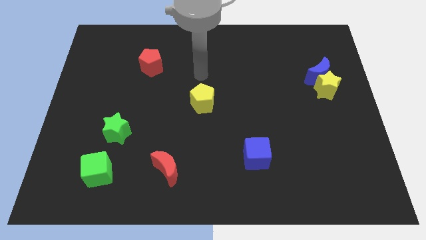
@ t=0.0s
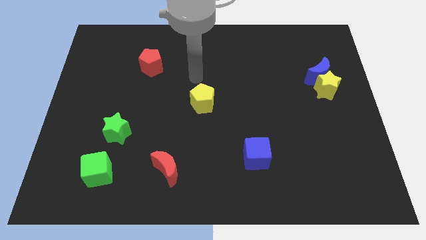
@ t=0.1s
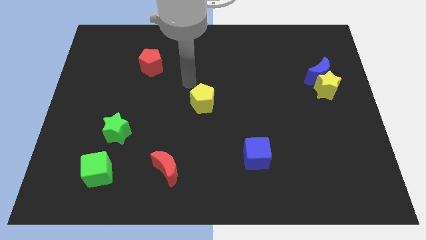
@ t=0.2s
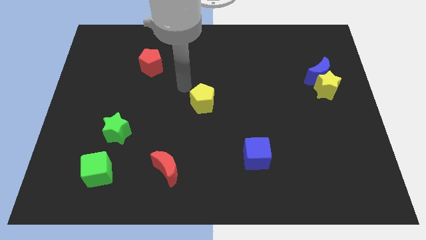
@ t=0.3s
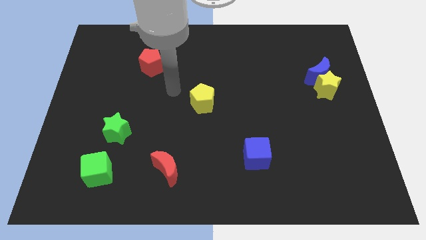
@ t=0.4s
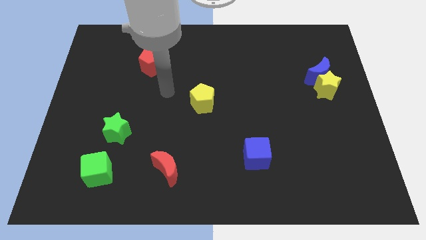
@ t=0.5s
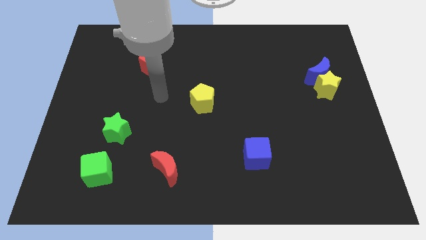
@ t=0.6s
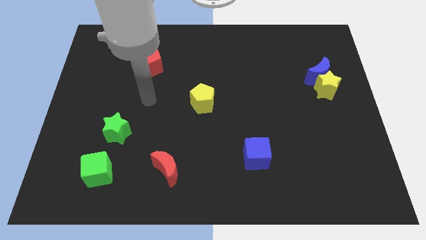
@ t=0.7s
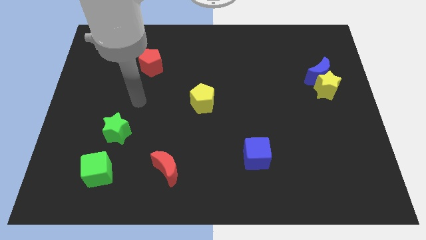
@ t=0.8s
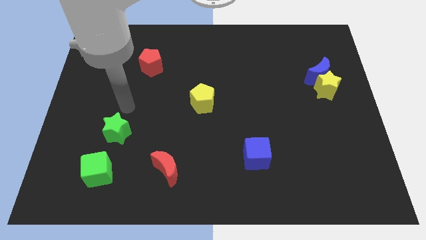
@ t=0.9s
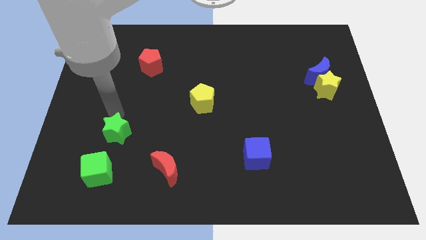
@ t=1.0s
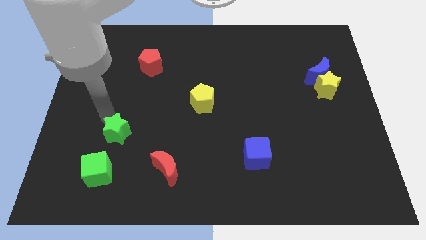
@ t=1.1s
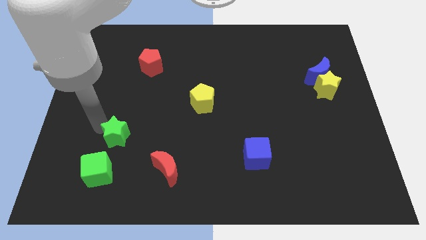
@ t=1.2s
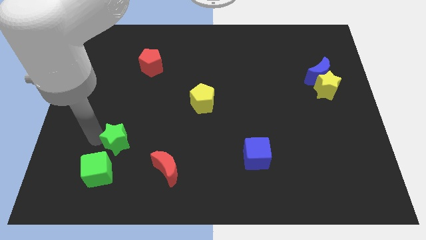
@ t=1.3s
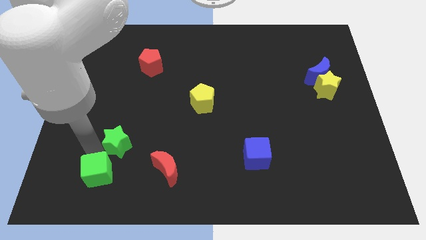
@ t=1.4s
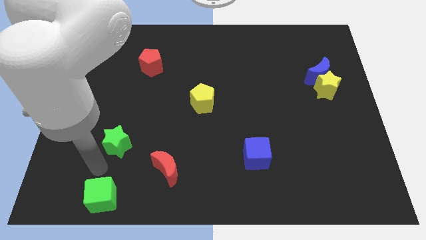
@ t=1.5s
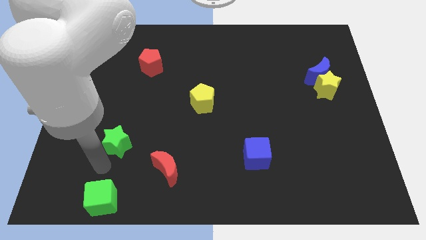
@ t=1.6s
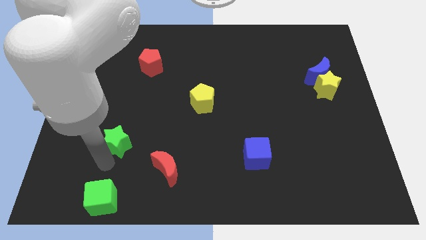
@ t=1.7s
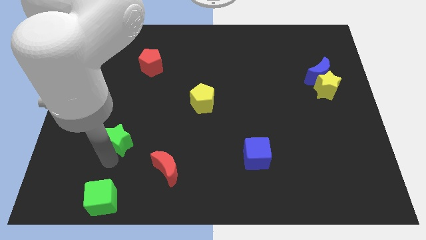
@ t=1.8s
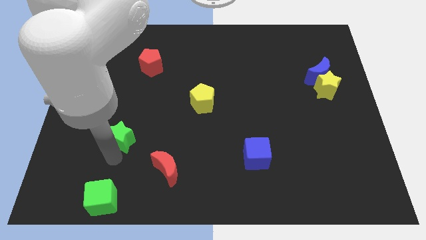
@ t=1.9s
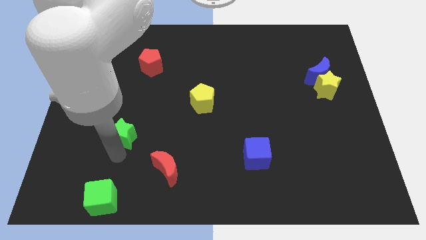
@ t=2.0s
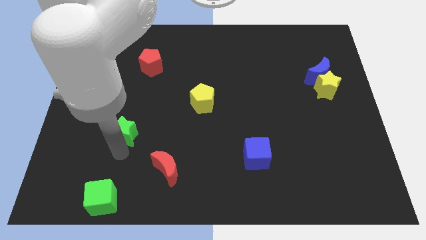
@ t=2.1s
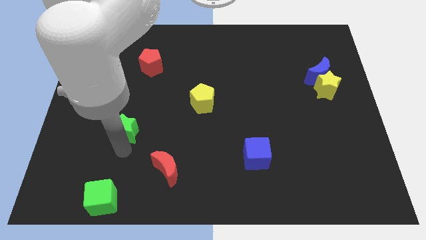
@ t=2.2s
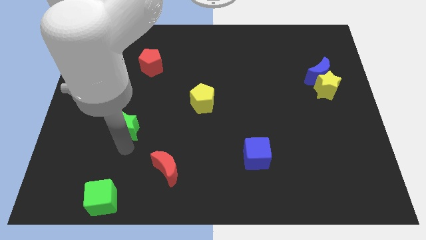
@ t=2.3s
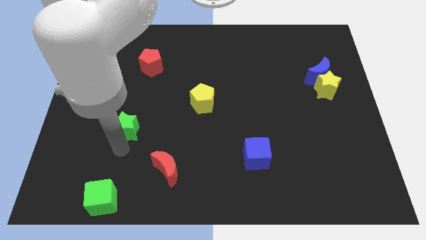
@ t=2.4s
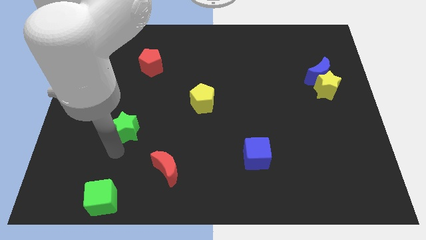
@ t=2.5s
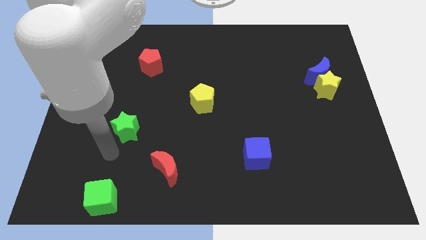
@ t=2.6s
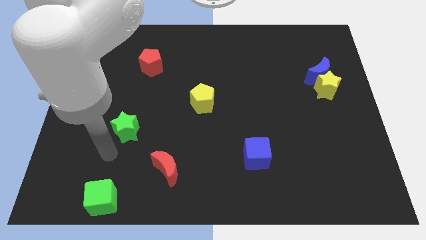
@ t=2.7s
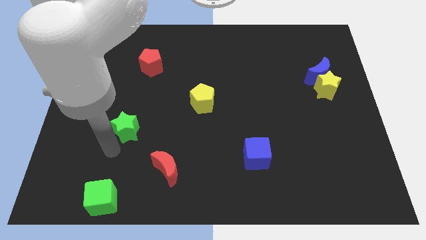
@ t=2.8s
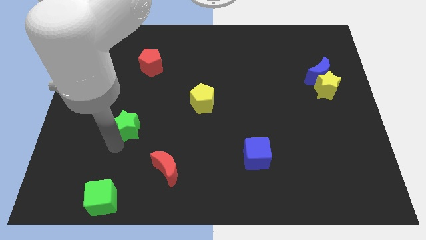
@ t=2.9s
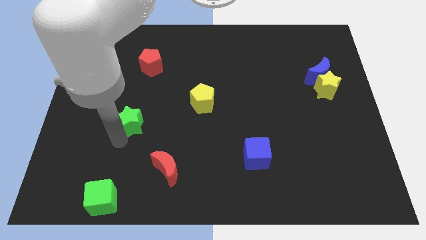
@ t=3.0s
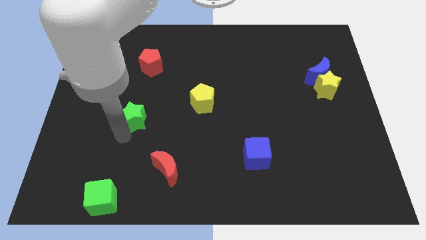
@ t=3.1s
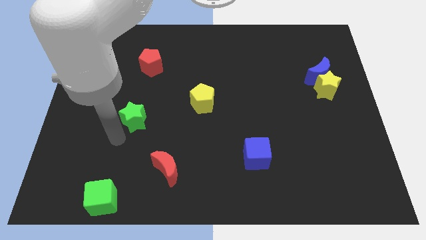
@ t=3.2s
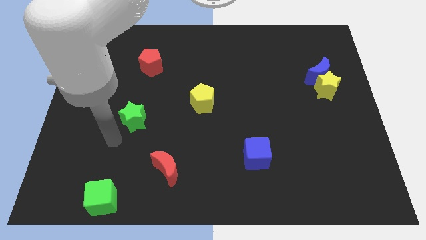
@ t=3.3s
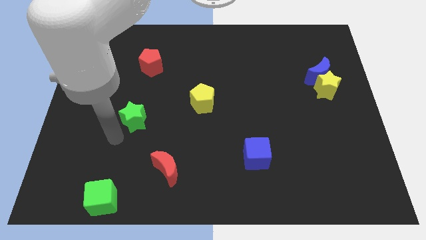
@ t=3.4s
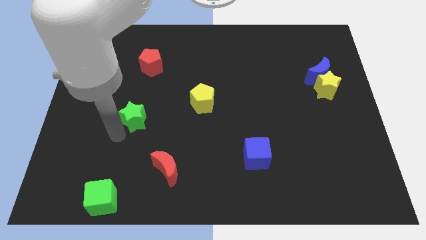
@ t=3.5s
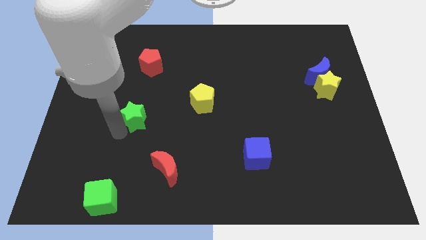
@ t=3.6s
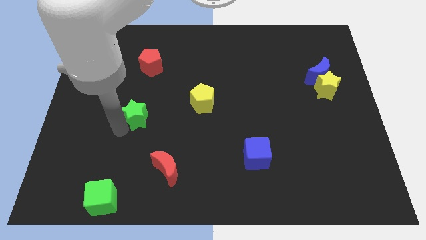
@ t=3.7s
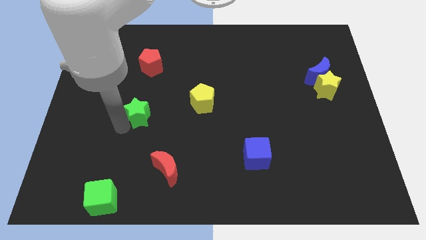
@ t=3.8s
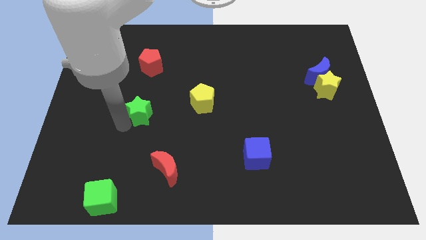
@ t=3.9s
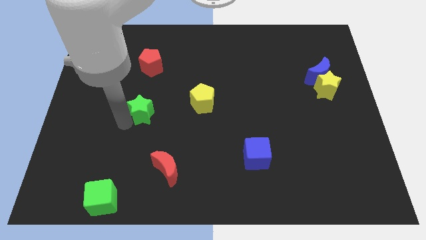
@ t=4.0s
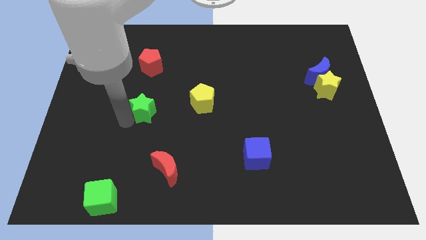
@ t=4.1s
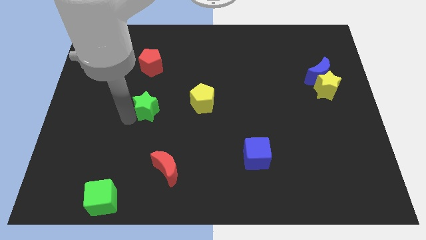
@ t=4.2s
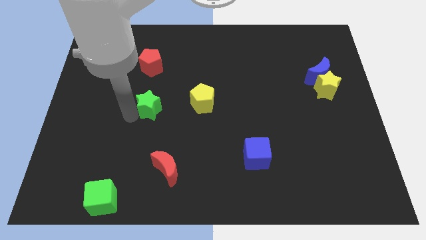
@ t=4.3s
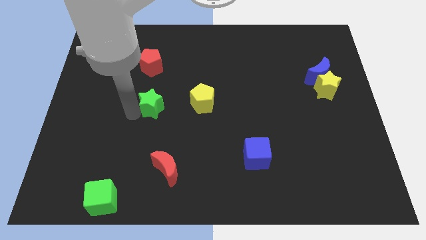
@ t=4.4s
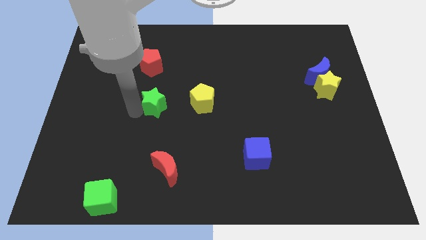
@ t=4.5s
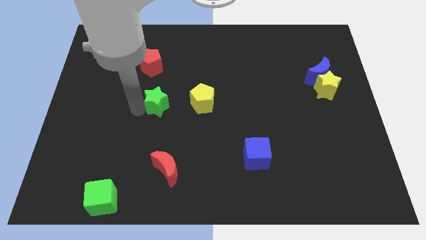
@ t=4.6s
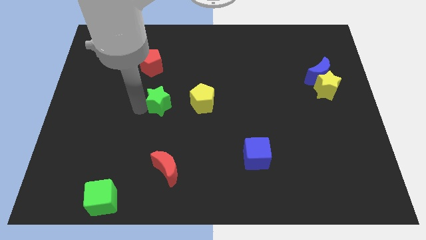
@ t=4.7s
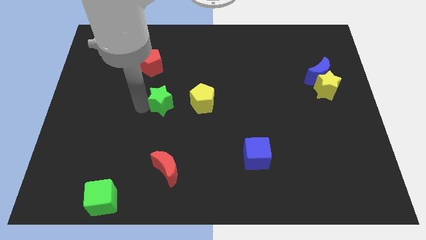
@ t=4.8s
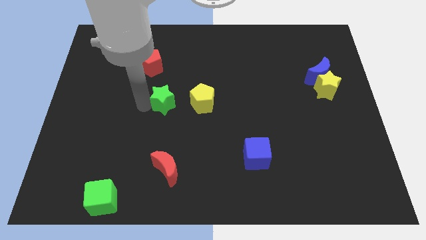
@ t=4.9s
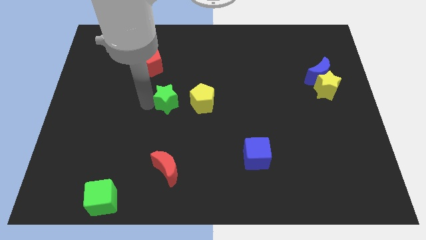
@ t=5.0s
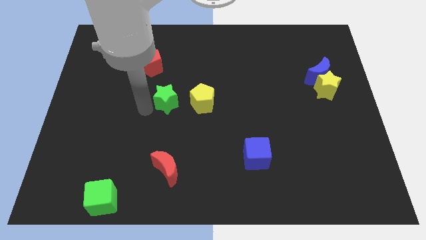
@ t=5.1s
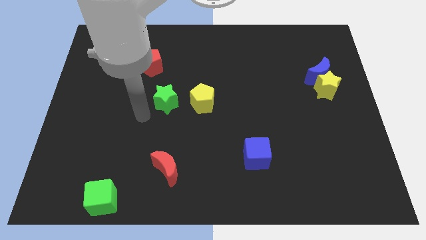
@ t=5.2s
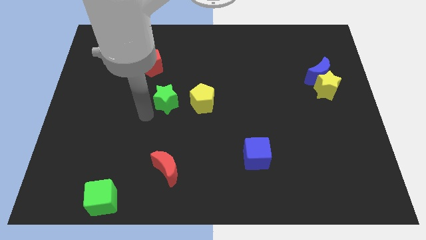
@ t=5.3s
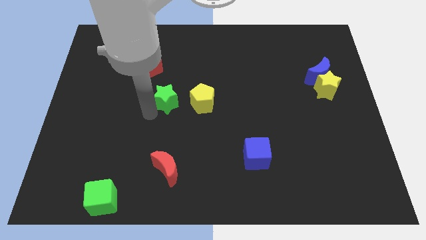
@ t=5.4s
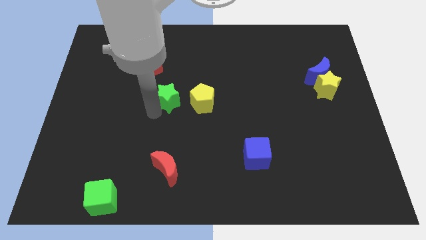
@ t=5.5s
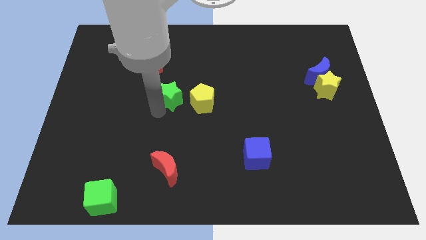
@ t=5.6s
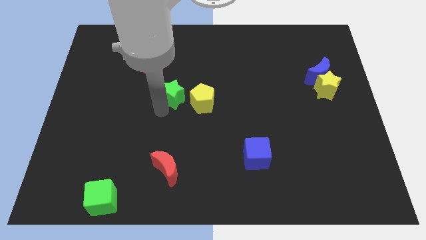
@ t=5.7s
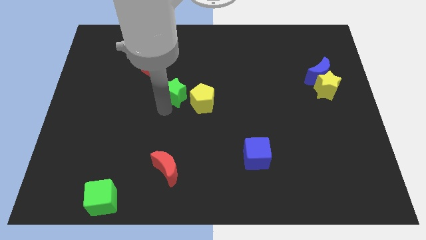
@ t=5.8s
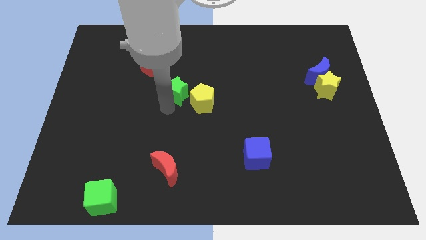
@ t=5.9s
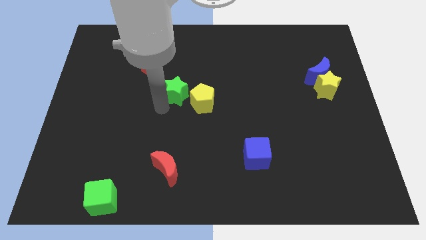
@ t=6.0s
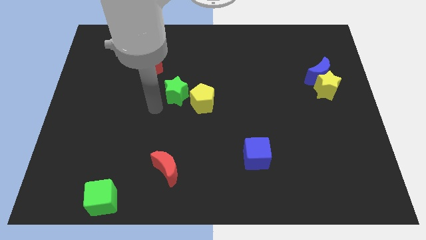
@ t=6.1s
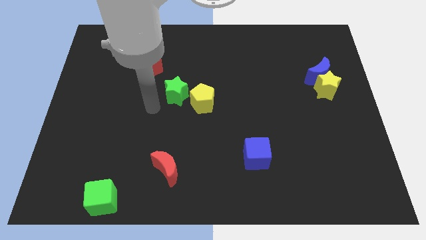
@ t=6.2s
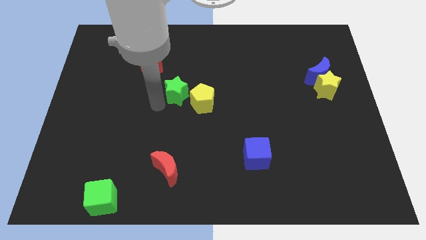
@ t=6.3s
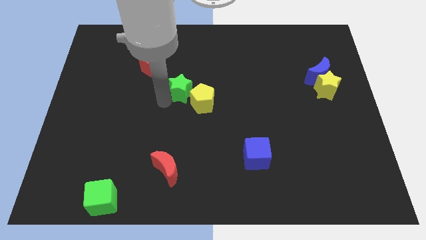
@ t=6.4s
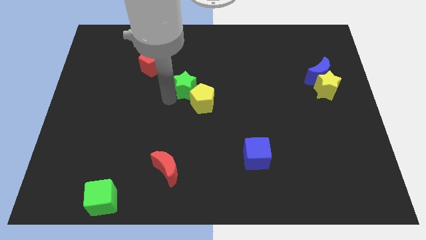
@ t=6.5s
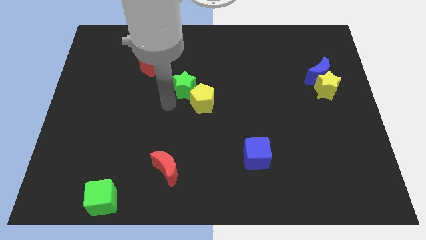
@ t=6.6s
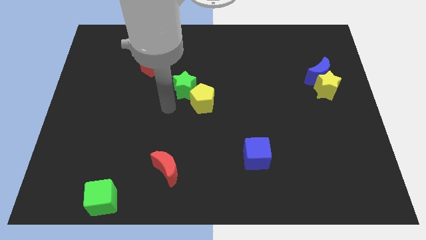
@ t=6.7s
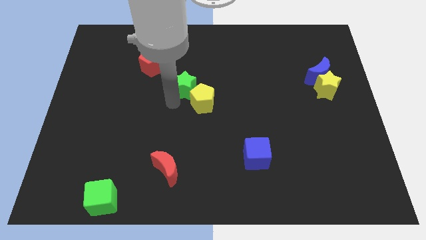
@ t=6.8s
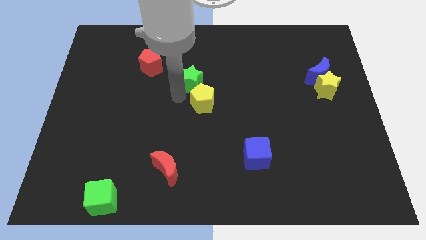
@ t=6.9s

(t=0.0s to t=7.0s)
move the green star upwards and right

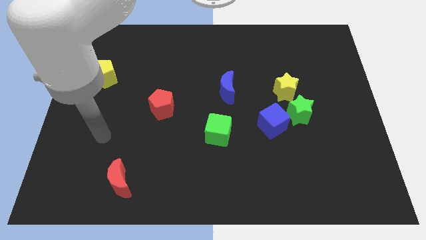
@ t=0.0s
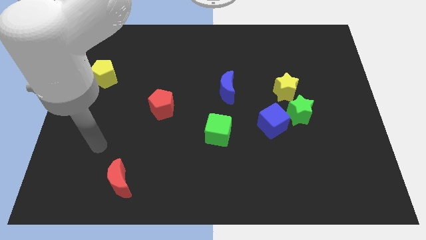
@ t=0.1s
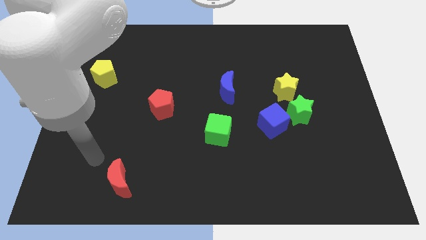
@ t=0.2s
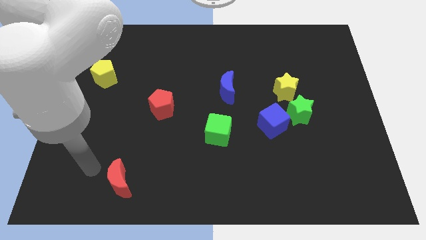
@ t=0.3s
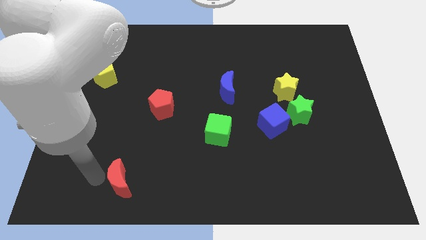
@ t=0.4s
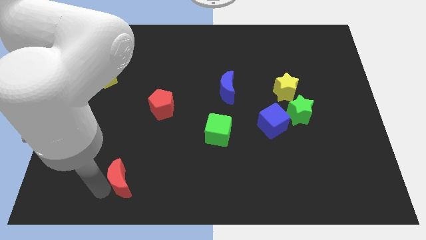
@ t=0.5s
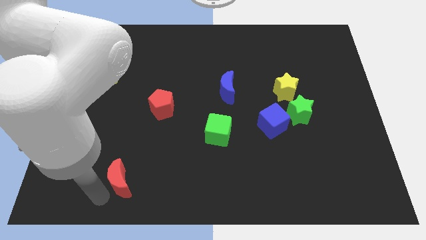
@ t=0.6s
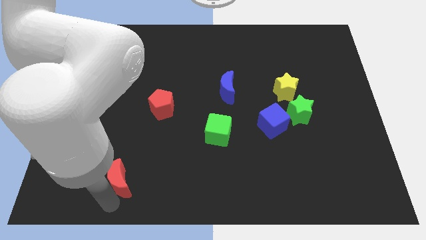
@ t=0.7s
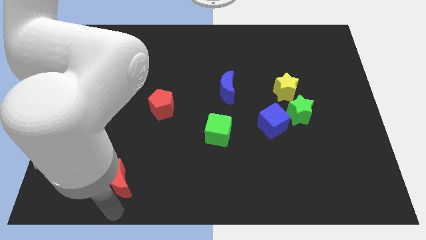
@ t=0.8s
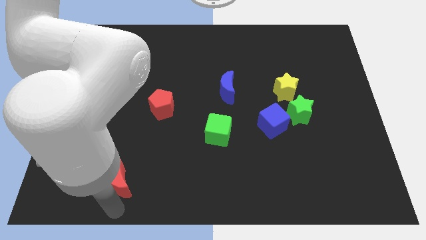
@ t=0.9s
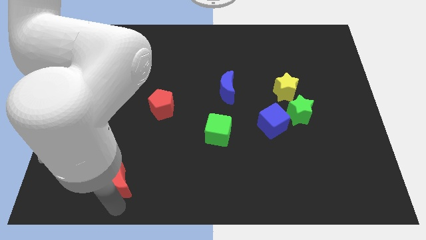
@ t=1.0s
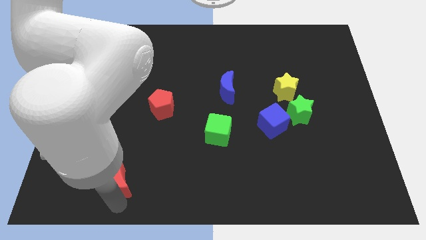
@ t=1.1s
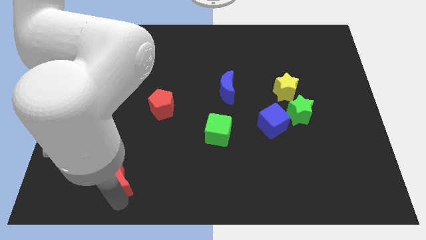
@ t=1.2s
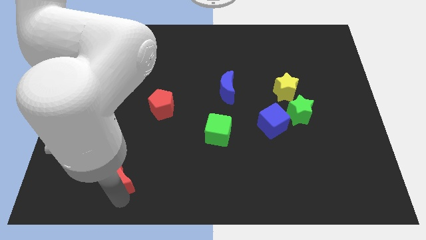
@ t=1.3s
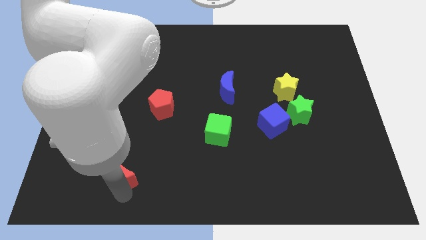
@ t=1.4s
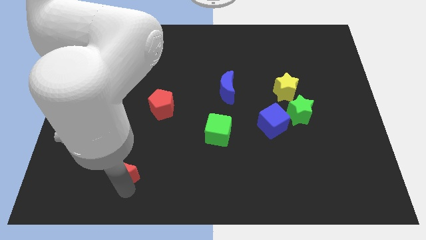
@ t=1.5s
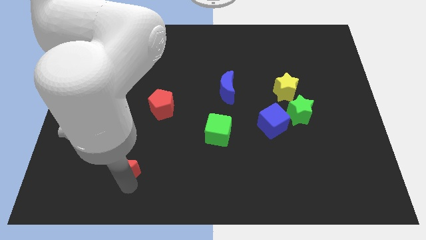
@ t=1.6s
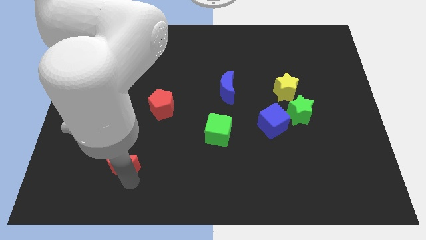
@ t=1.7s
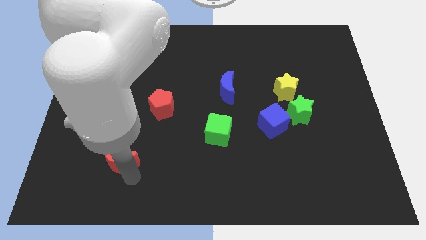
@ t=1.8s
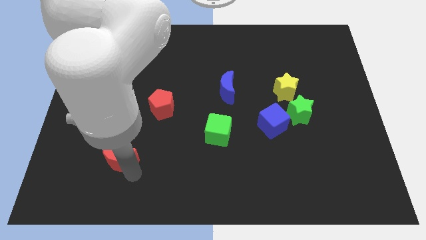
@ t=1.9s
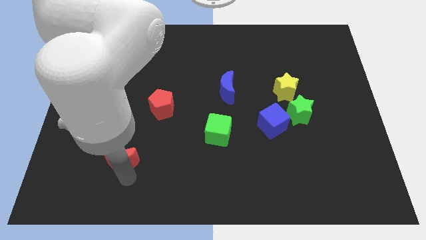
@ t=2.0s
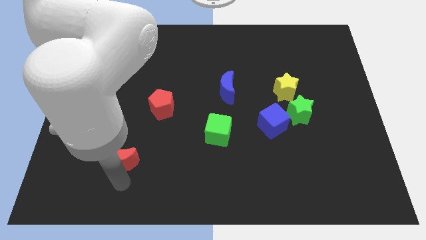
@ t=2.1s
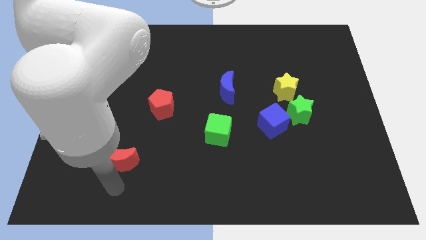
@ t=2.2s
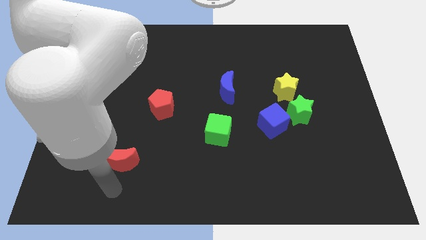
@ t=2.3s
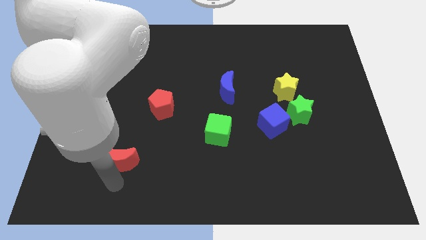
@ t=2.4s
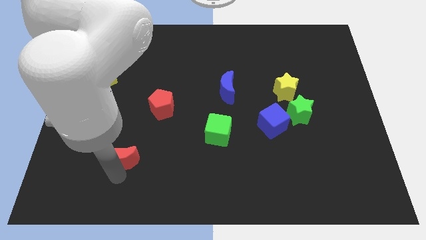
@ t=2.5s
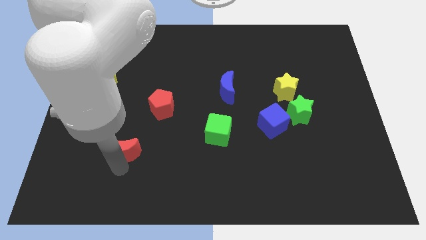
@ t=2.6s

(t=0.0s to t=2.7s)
slightly slide the red moon up
